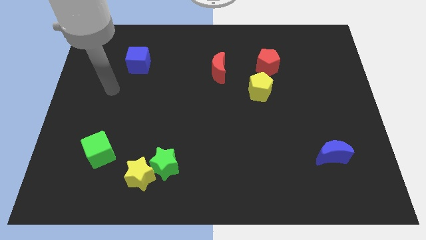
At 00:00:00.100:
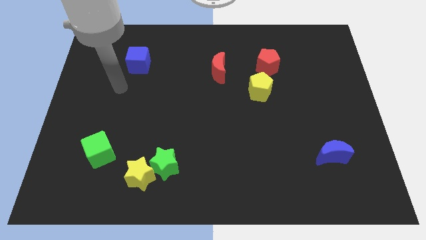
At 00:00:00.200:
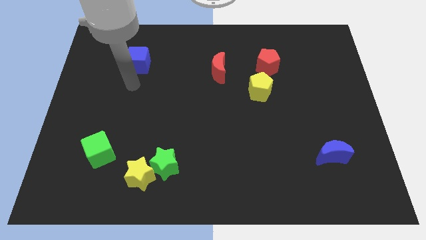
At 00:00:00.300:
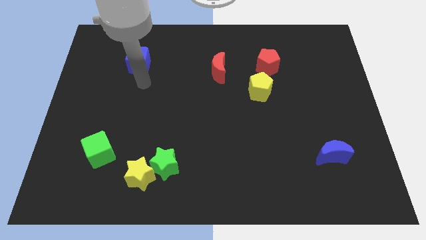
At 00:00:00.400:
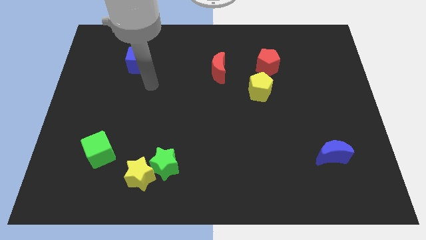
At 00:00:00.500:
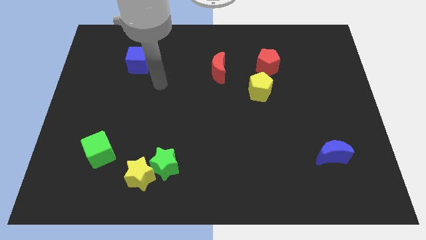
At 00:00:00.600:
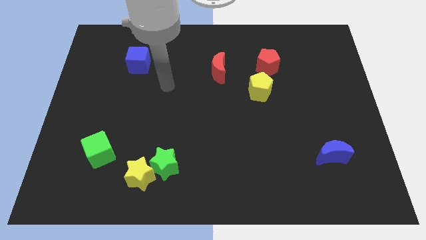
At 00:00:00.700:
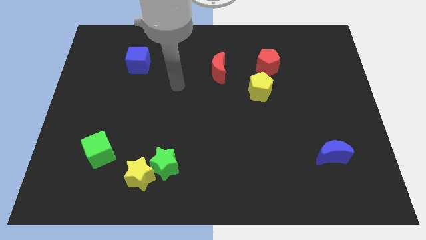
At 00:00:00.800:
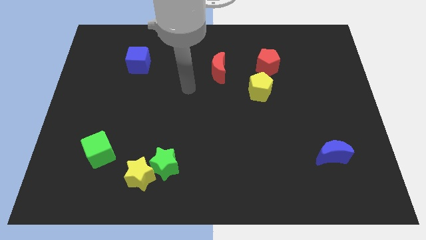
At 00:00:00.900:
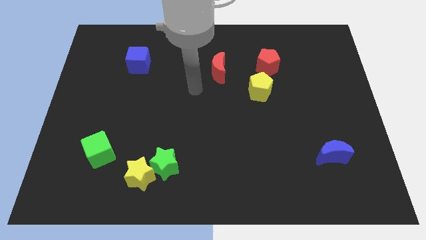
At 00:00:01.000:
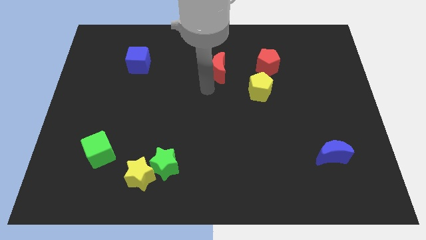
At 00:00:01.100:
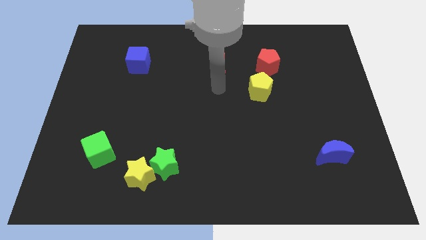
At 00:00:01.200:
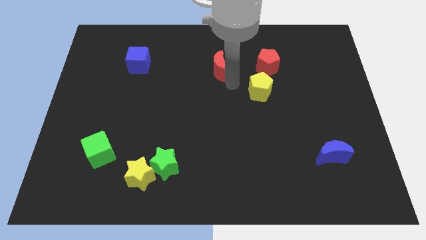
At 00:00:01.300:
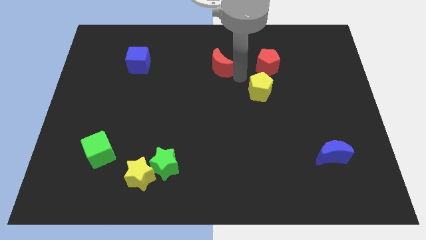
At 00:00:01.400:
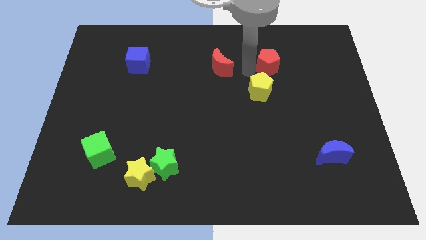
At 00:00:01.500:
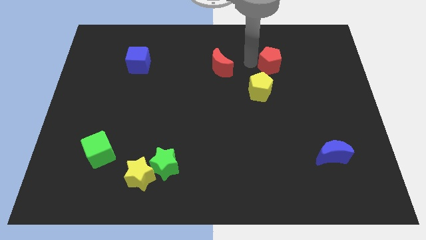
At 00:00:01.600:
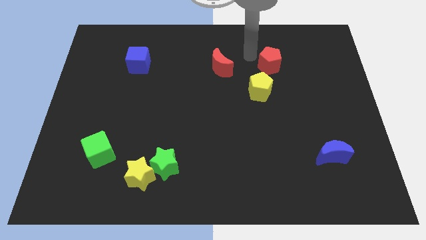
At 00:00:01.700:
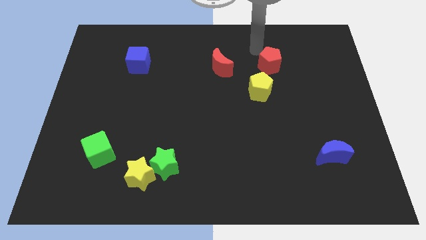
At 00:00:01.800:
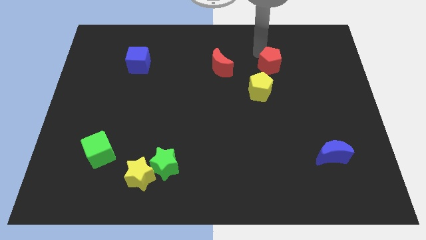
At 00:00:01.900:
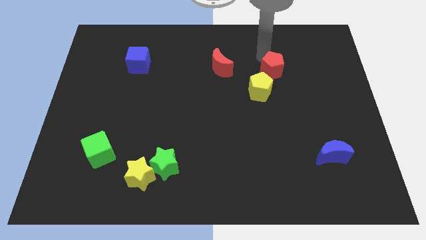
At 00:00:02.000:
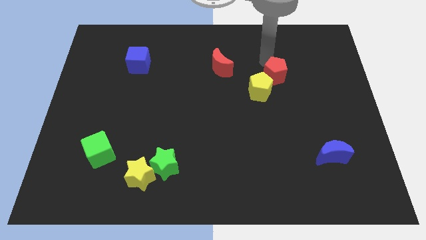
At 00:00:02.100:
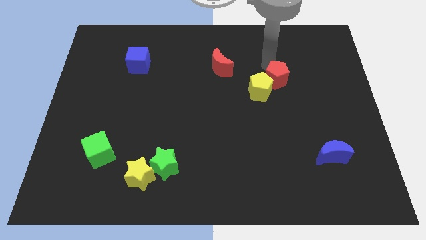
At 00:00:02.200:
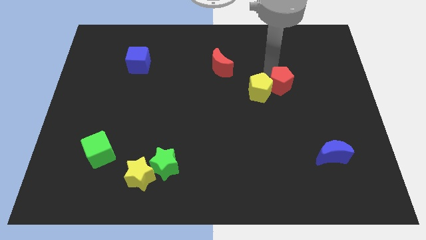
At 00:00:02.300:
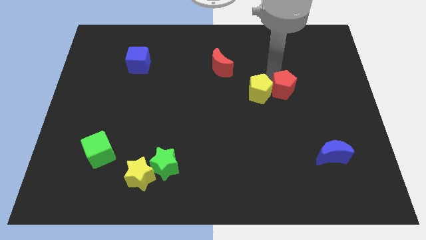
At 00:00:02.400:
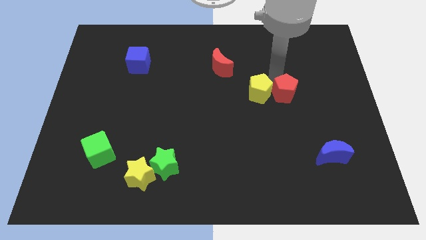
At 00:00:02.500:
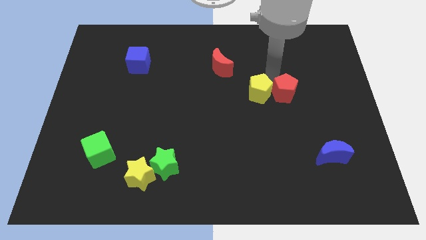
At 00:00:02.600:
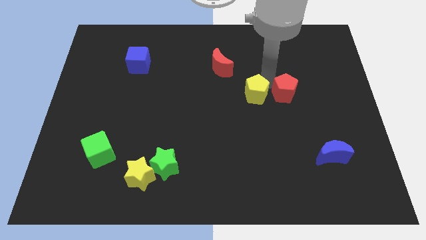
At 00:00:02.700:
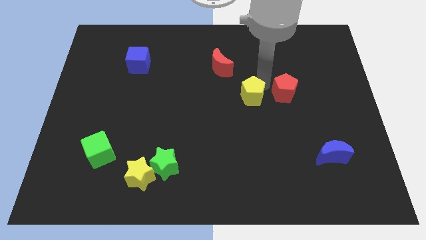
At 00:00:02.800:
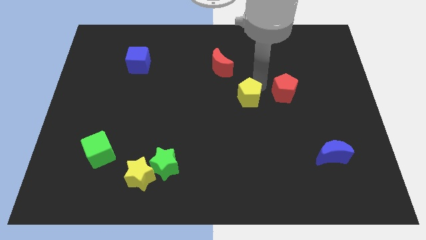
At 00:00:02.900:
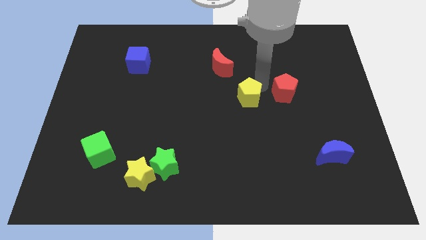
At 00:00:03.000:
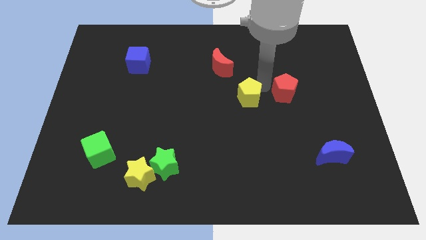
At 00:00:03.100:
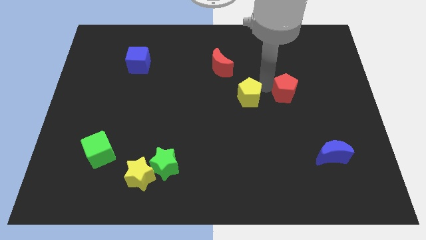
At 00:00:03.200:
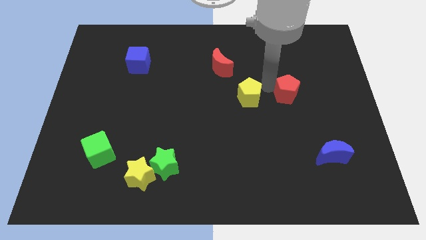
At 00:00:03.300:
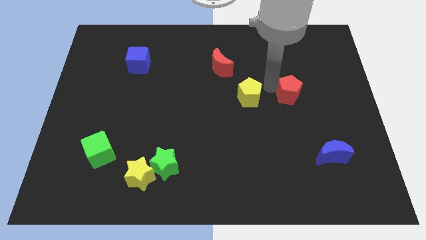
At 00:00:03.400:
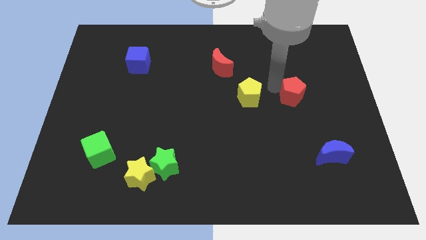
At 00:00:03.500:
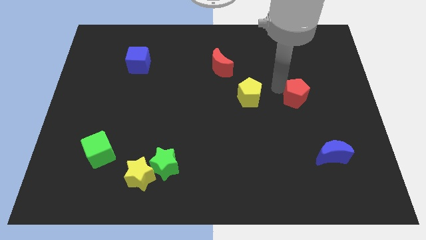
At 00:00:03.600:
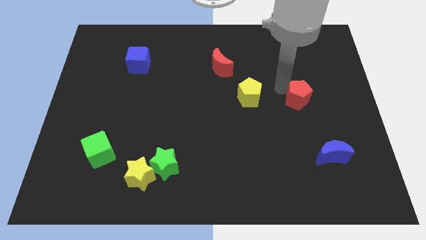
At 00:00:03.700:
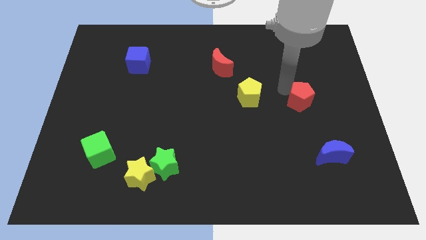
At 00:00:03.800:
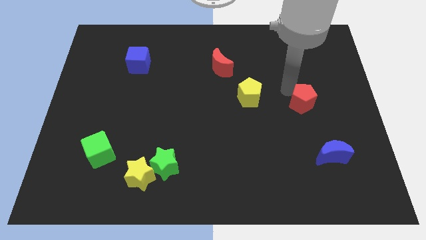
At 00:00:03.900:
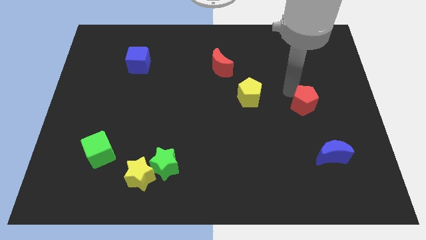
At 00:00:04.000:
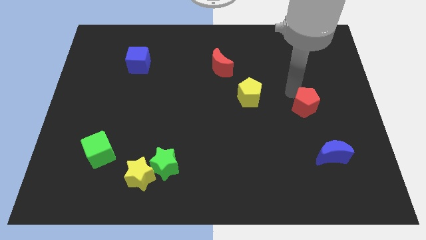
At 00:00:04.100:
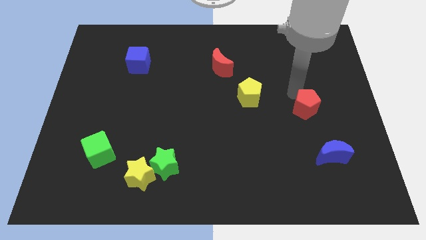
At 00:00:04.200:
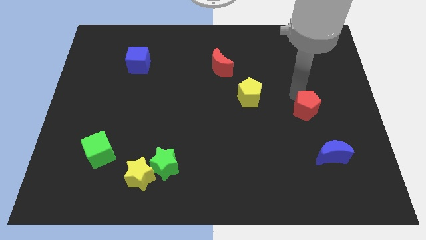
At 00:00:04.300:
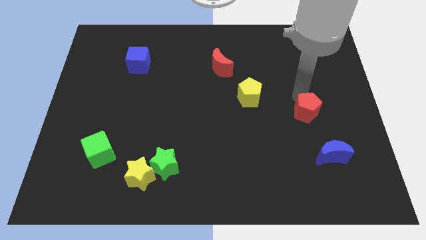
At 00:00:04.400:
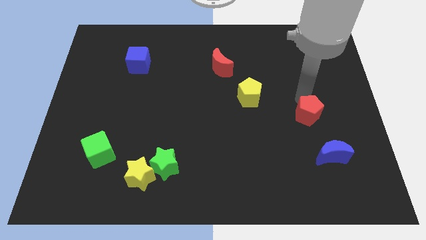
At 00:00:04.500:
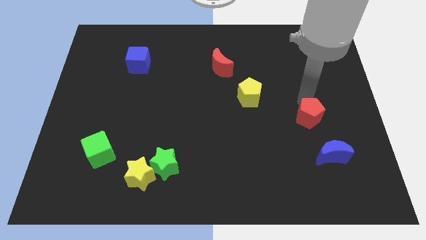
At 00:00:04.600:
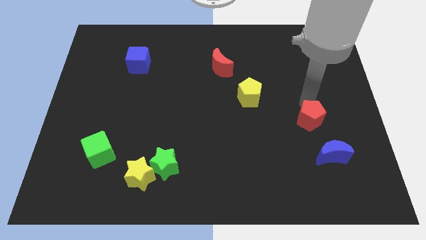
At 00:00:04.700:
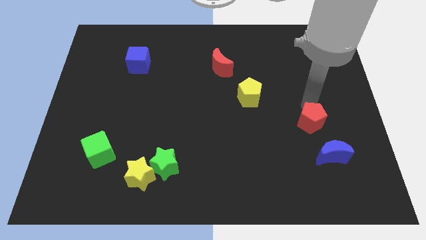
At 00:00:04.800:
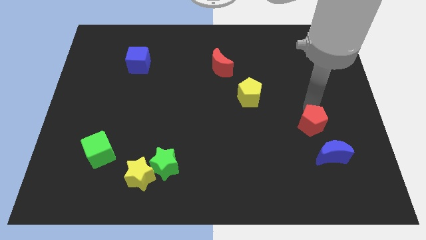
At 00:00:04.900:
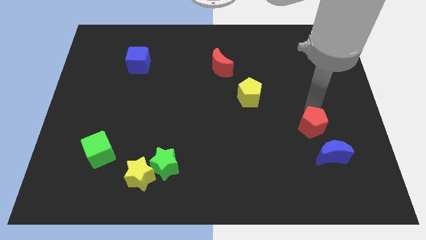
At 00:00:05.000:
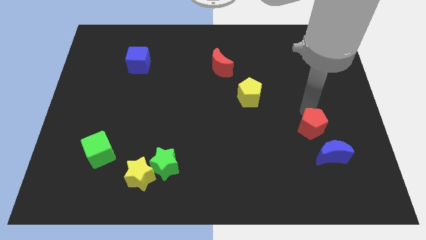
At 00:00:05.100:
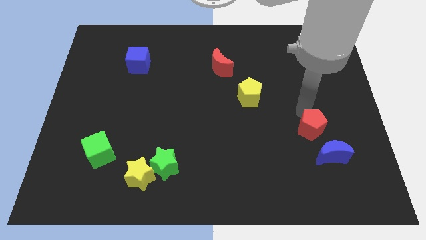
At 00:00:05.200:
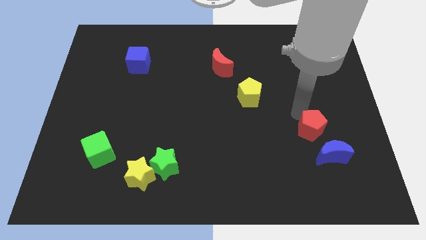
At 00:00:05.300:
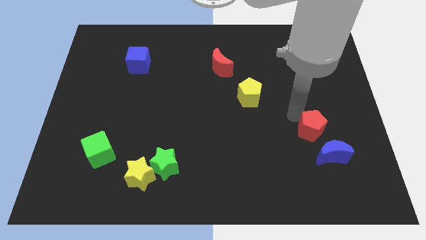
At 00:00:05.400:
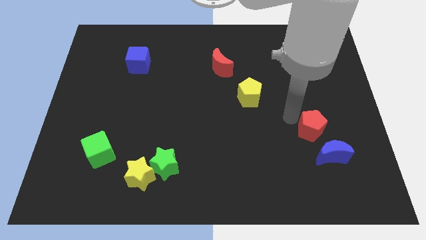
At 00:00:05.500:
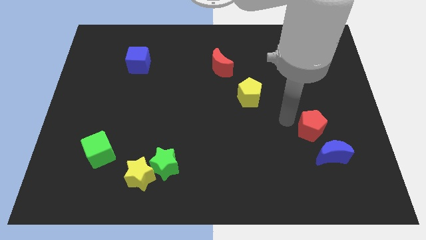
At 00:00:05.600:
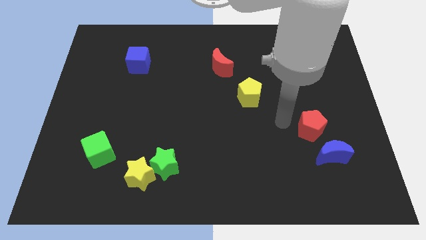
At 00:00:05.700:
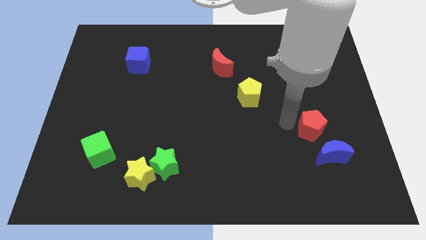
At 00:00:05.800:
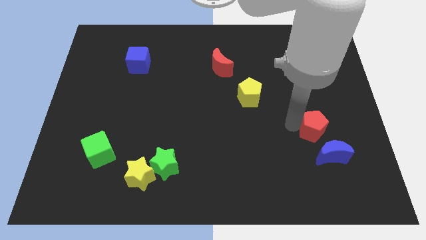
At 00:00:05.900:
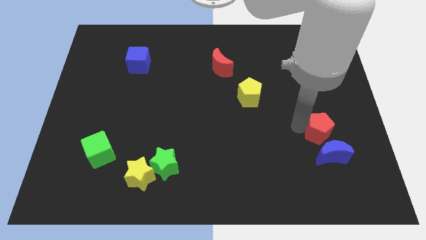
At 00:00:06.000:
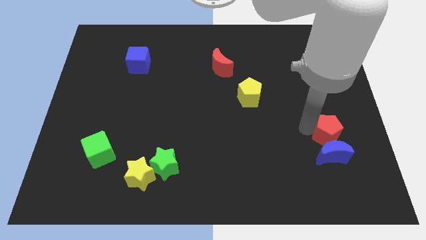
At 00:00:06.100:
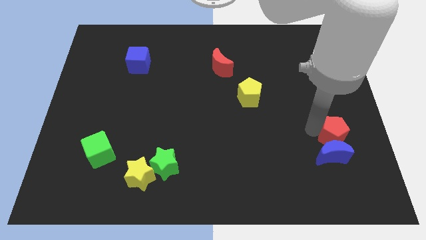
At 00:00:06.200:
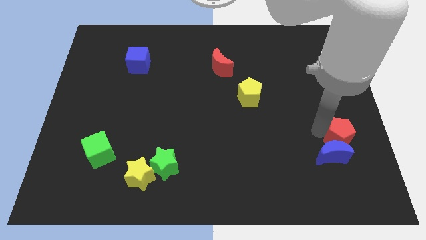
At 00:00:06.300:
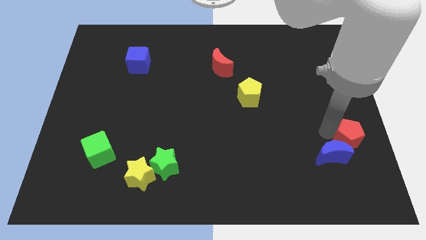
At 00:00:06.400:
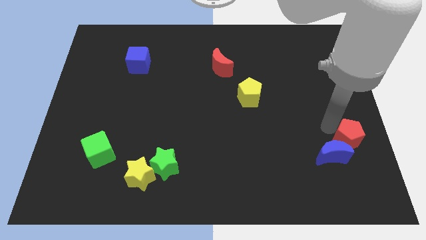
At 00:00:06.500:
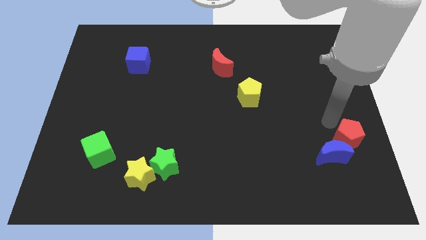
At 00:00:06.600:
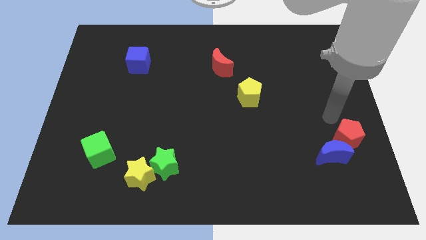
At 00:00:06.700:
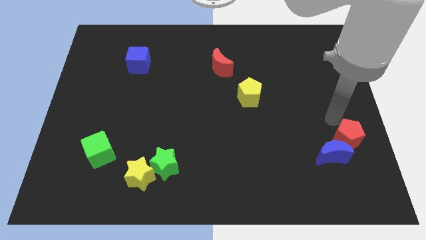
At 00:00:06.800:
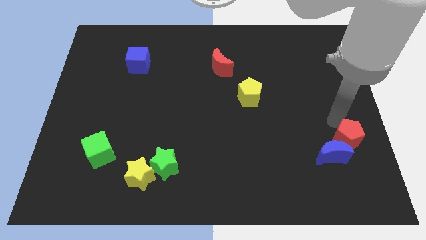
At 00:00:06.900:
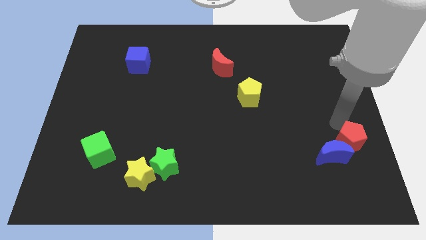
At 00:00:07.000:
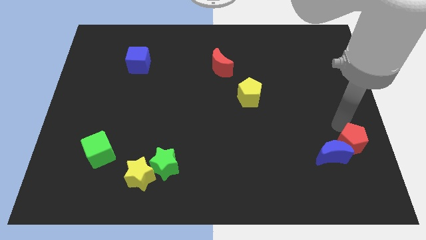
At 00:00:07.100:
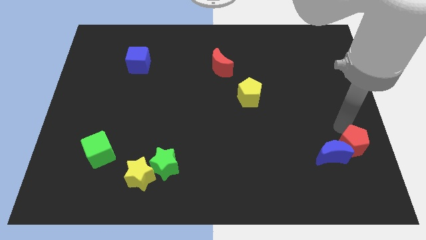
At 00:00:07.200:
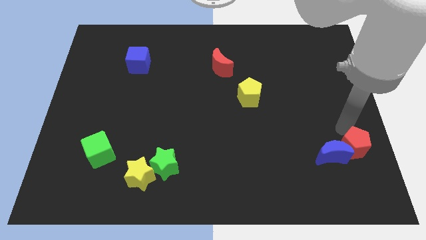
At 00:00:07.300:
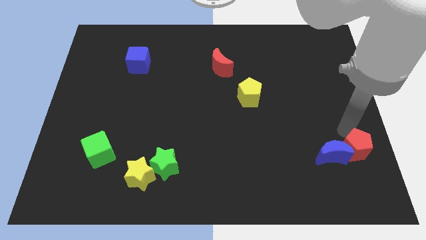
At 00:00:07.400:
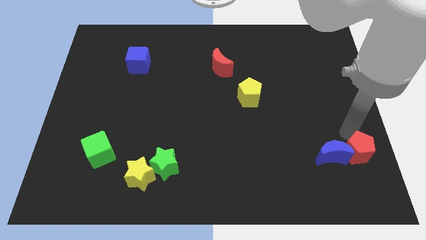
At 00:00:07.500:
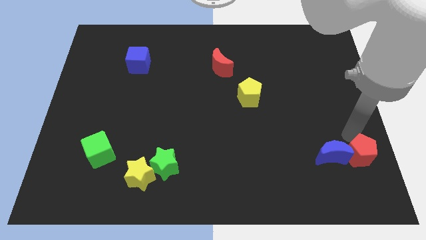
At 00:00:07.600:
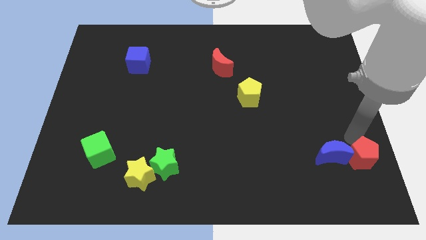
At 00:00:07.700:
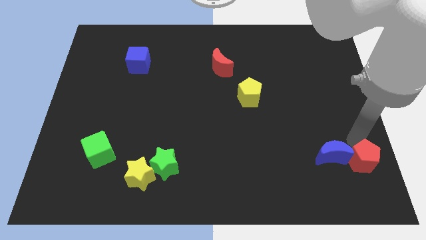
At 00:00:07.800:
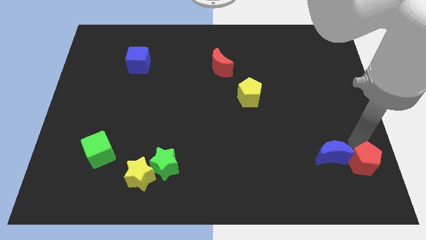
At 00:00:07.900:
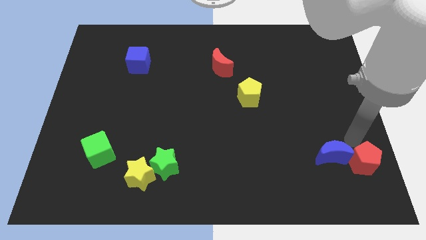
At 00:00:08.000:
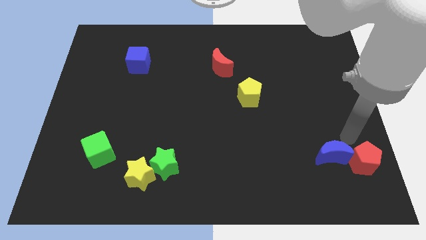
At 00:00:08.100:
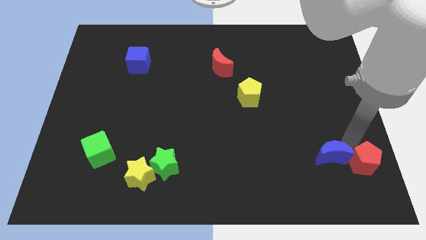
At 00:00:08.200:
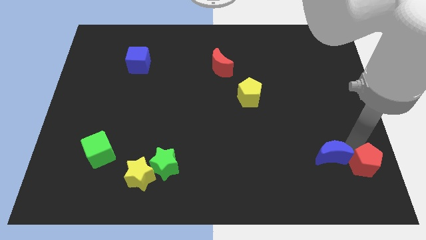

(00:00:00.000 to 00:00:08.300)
slide the red pentagon to the bottom right corner
